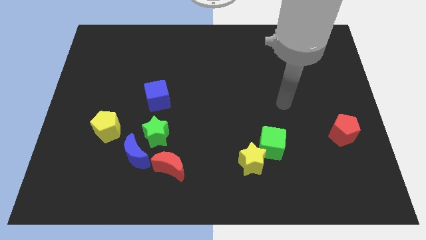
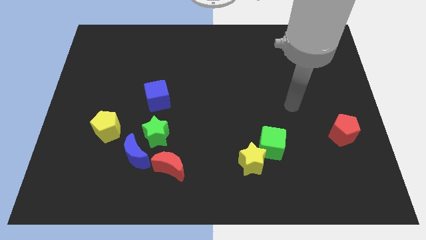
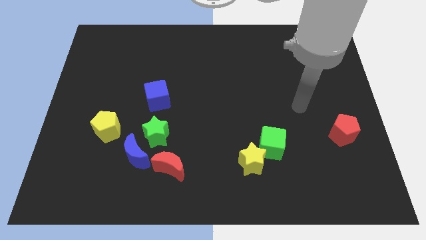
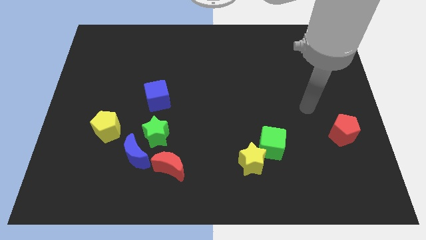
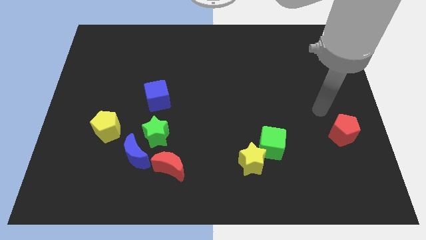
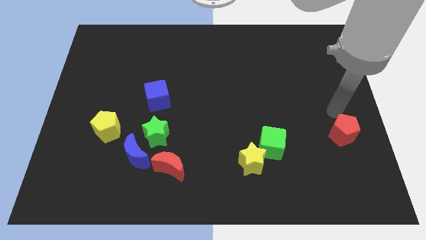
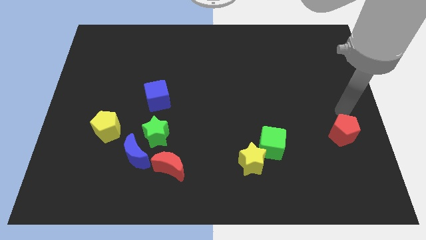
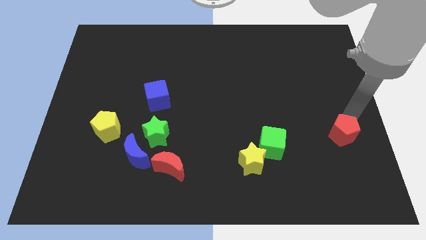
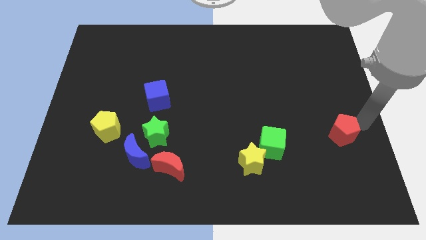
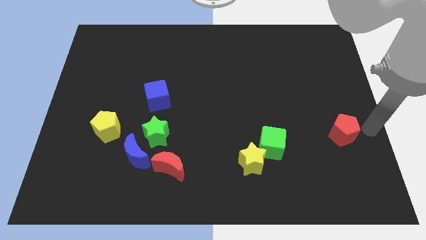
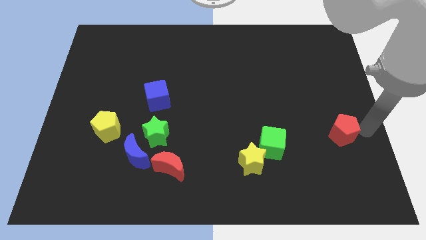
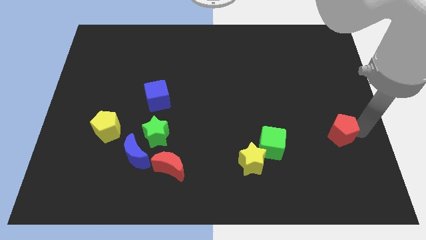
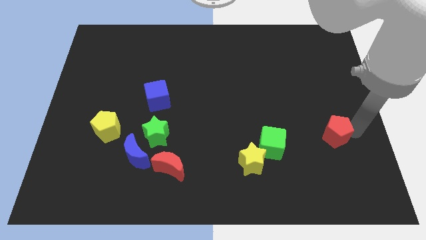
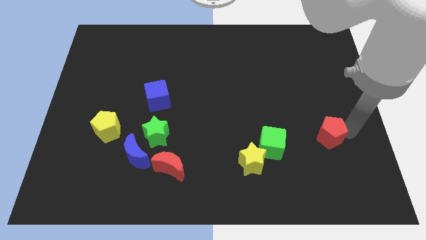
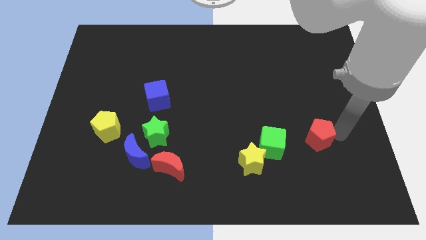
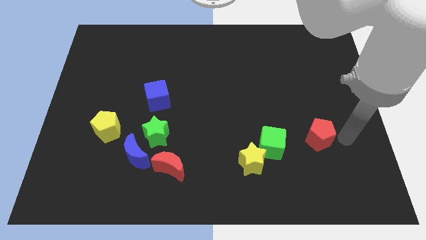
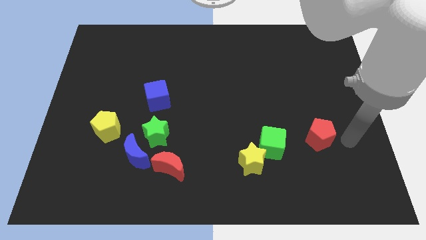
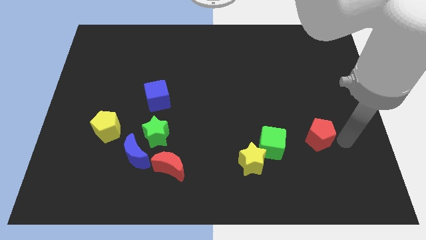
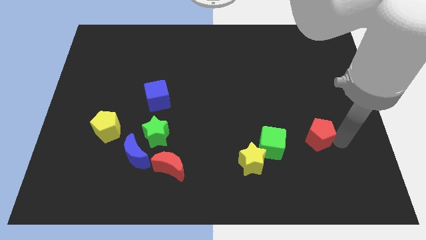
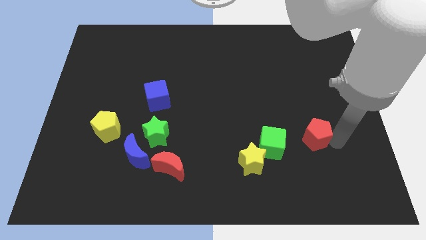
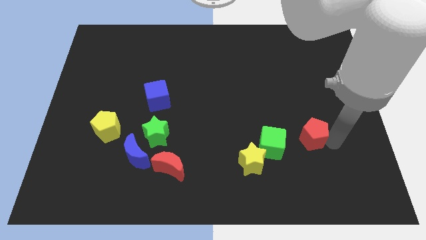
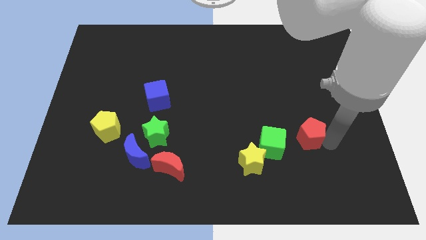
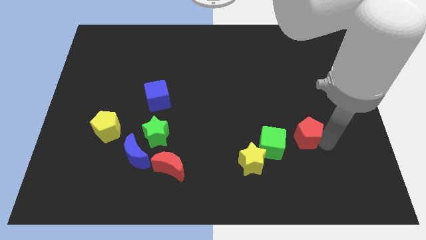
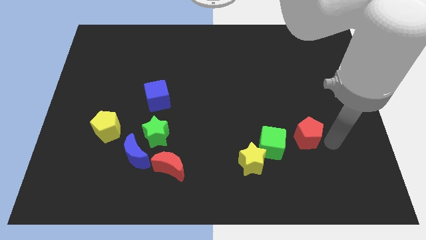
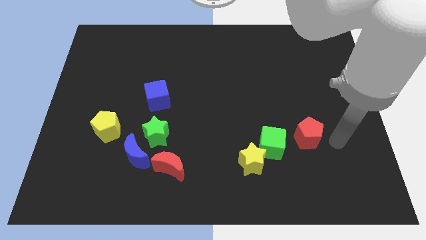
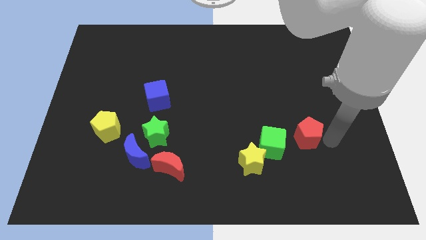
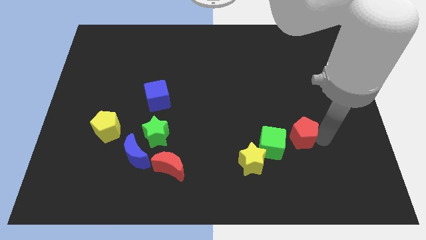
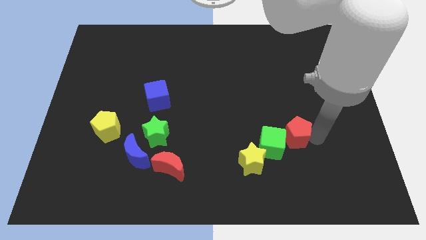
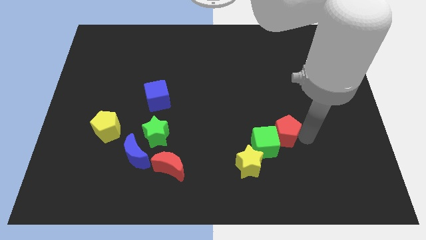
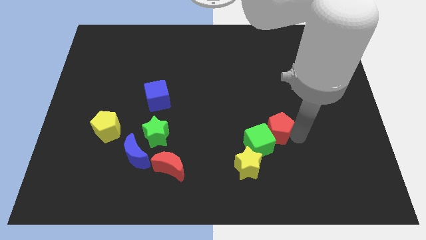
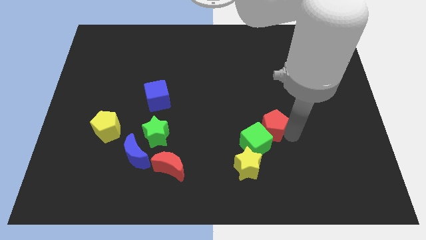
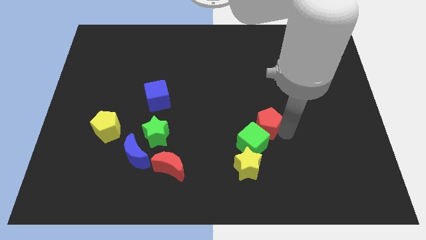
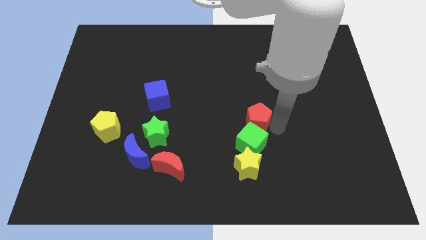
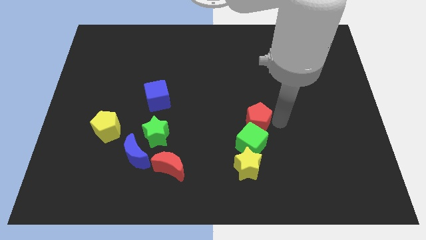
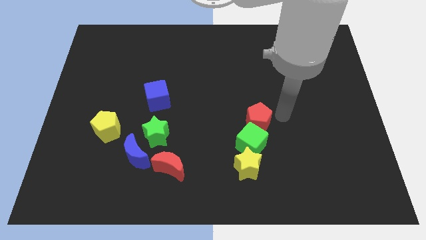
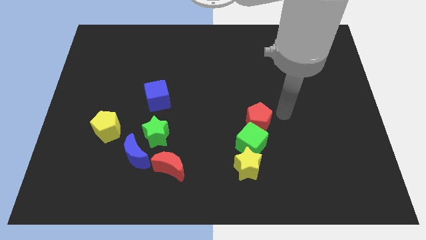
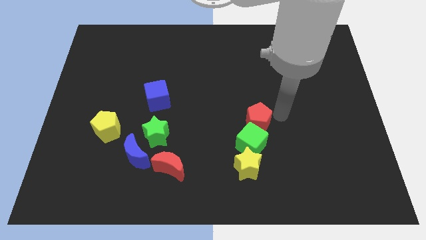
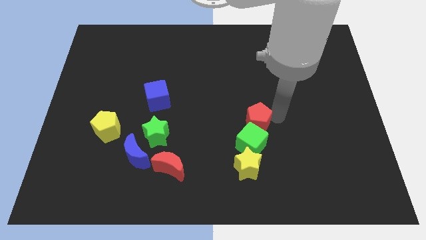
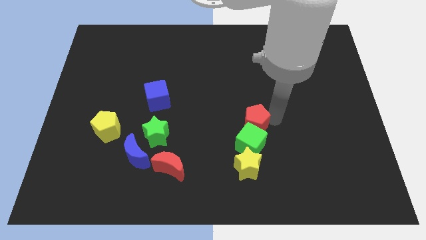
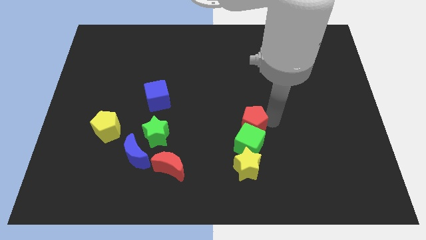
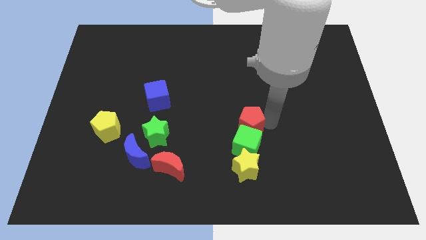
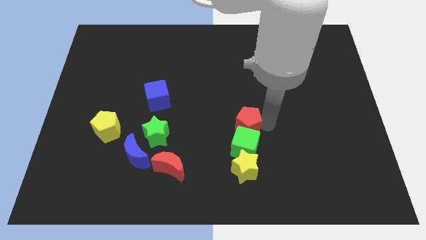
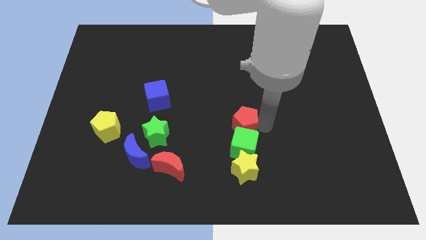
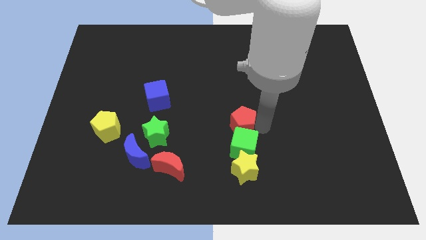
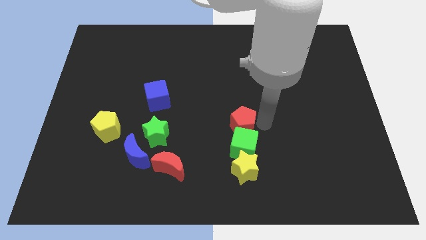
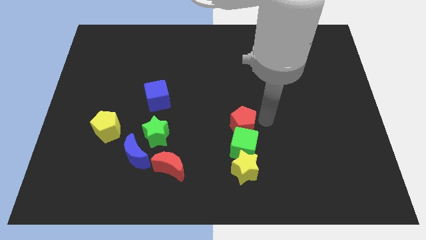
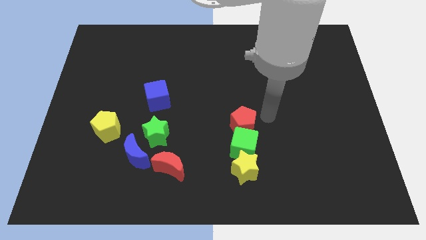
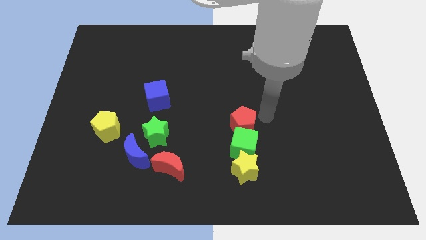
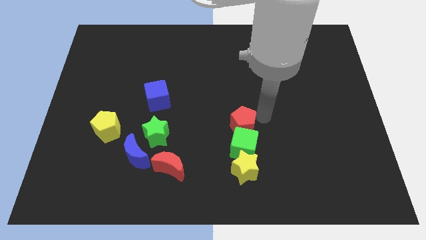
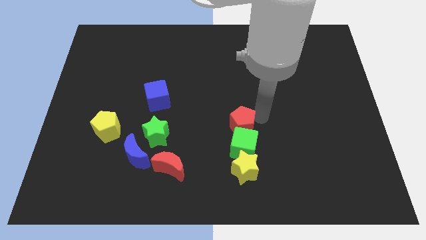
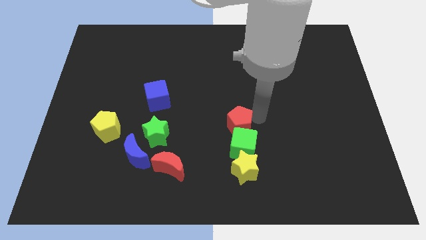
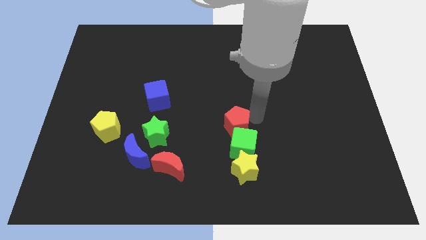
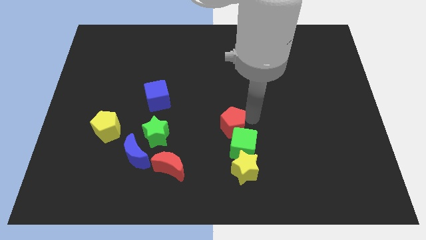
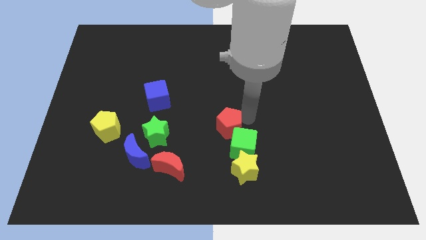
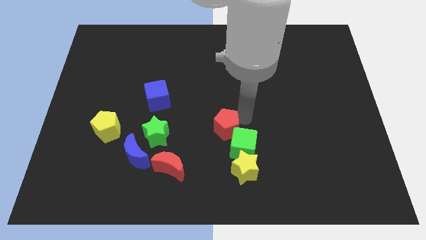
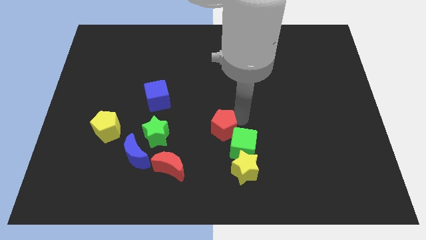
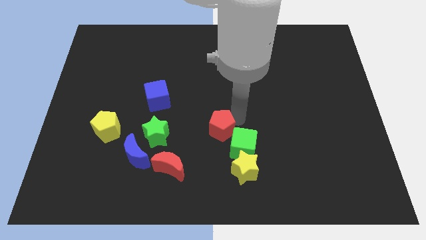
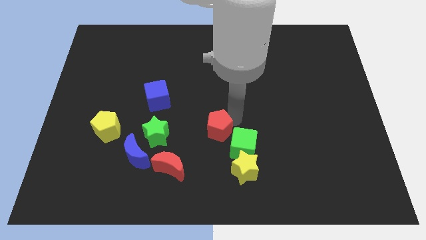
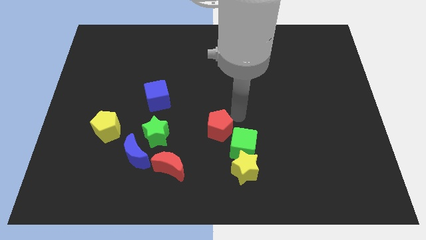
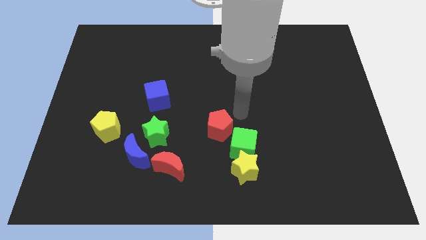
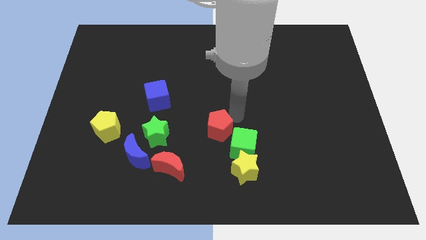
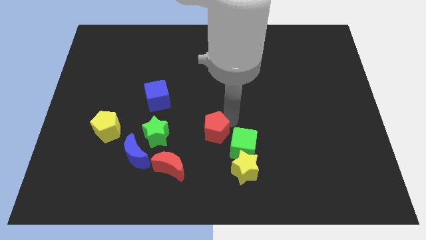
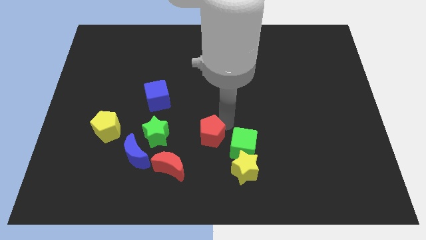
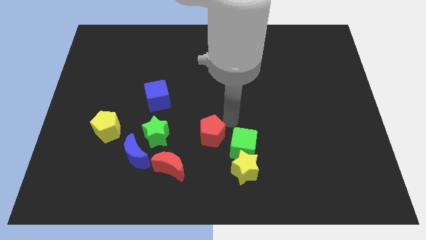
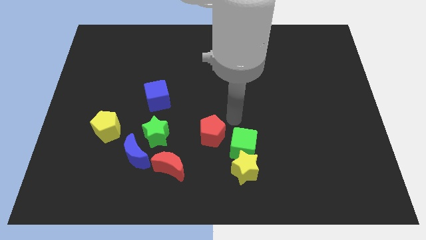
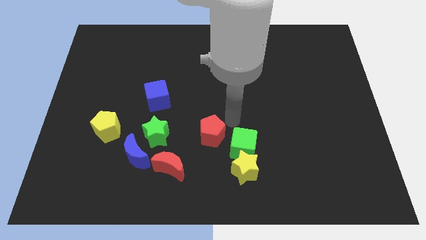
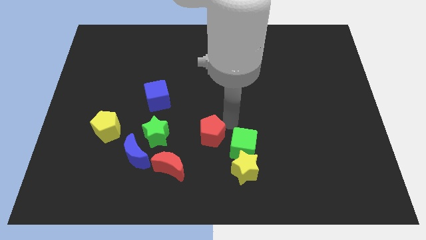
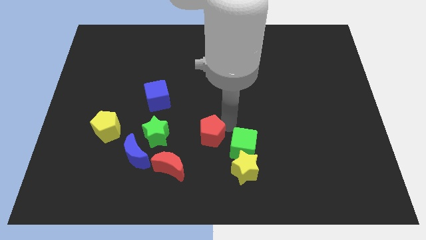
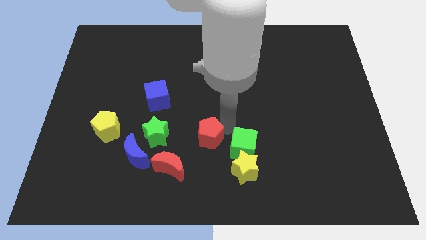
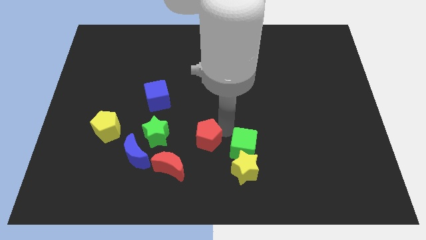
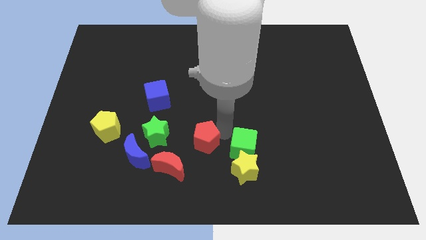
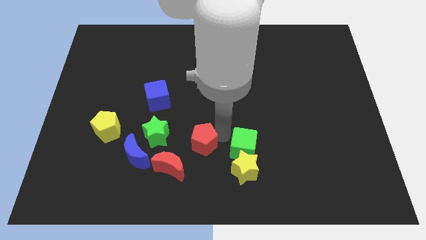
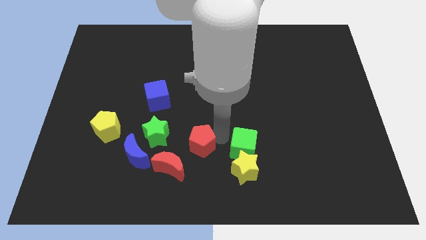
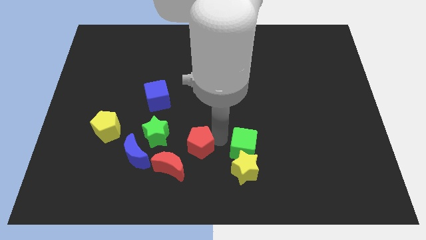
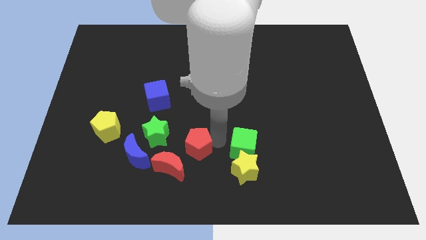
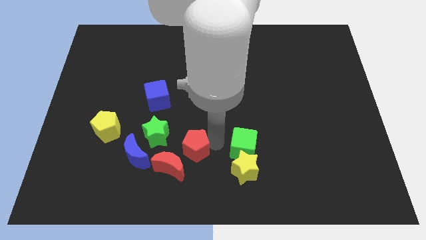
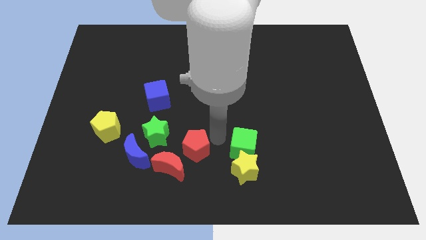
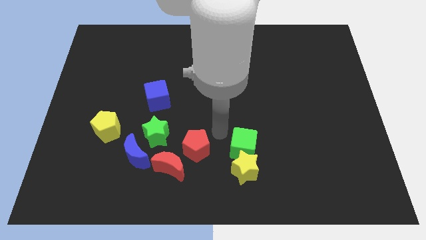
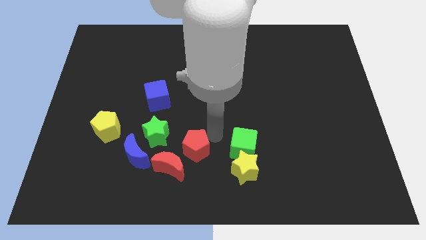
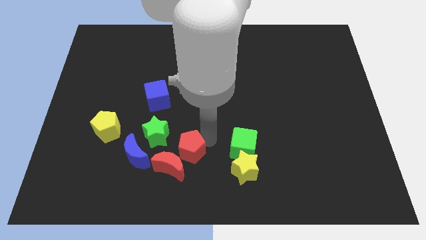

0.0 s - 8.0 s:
slide the red pentagon to the red moon

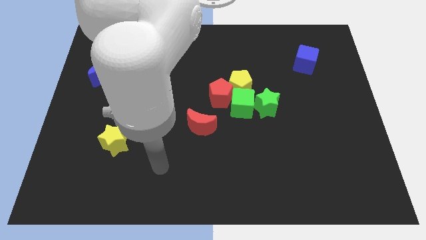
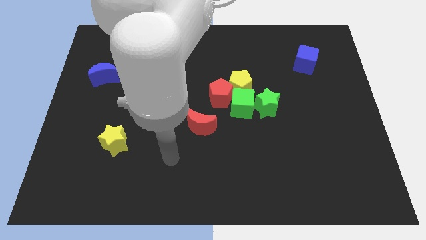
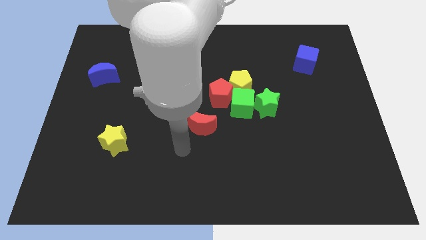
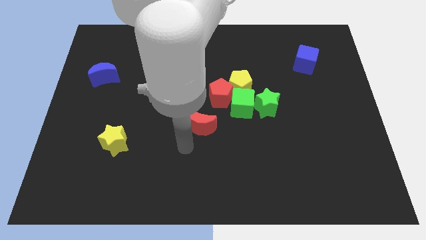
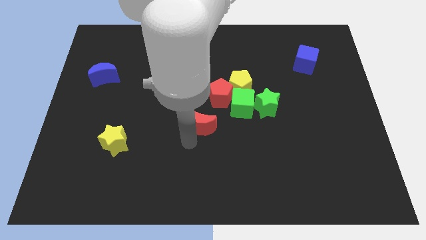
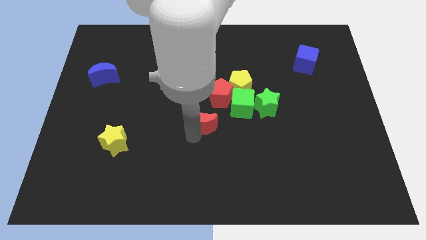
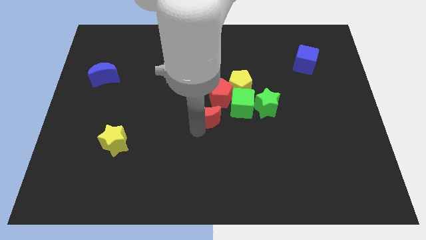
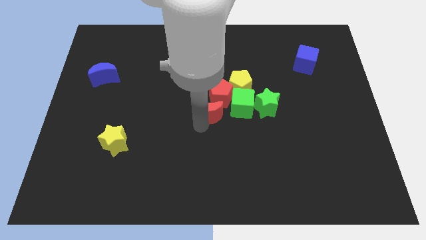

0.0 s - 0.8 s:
put the red moon close to the red pentagon
